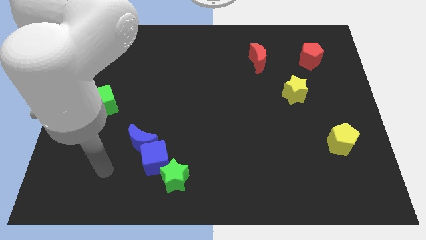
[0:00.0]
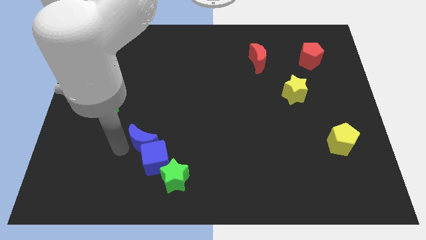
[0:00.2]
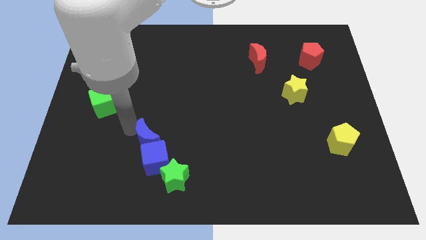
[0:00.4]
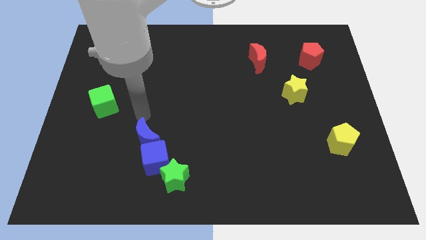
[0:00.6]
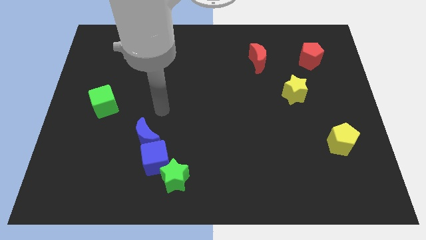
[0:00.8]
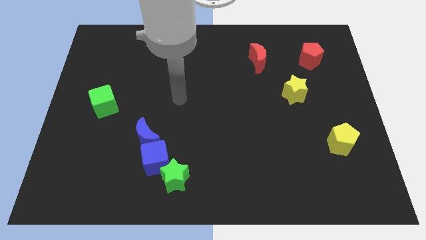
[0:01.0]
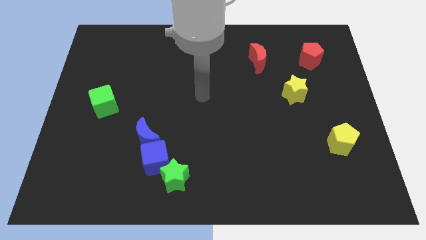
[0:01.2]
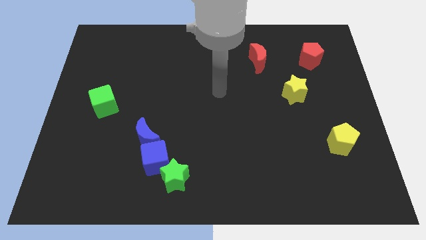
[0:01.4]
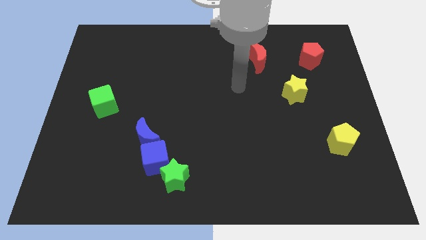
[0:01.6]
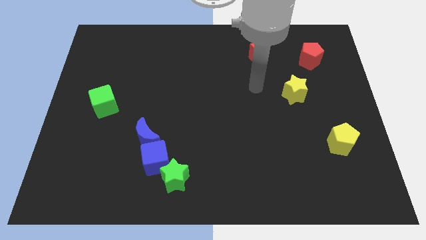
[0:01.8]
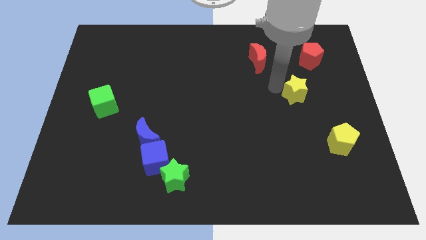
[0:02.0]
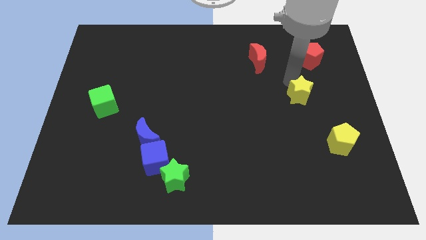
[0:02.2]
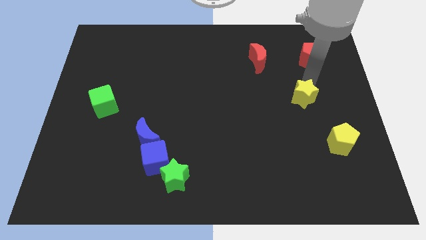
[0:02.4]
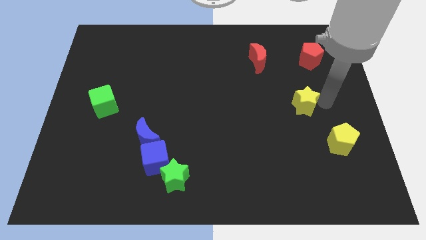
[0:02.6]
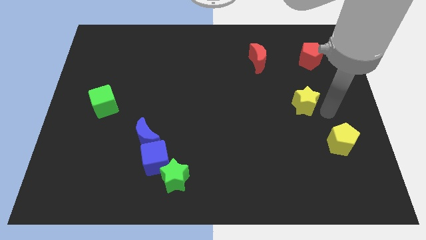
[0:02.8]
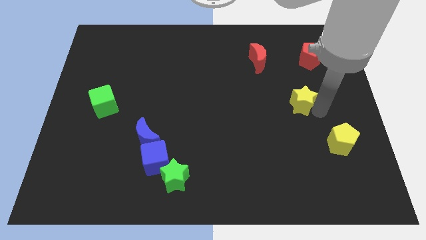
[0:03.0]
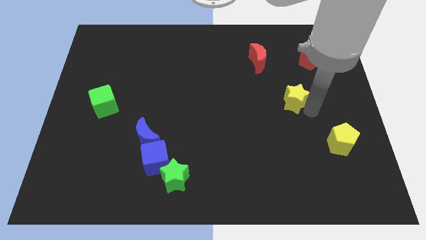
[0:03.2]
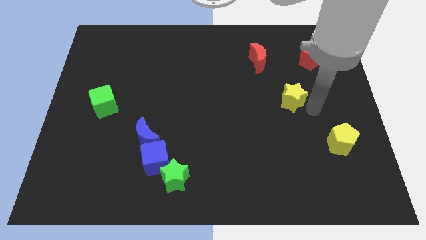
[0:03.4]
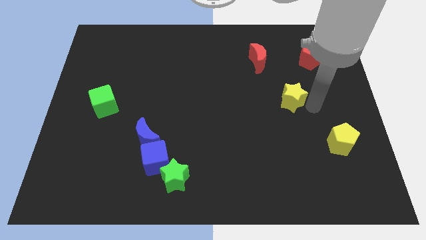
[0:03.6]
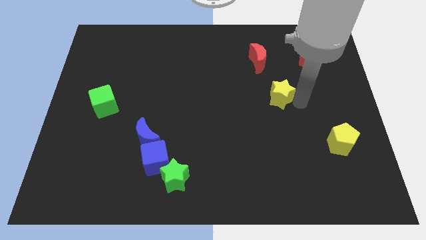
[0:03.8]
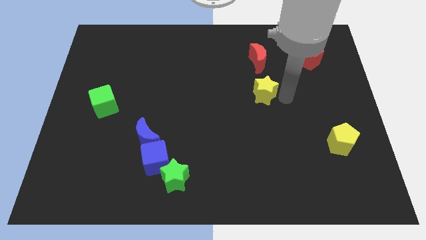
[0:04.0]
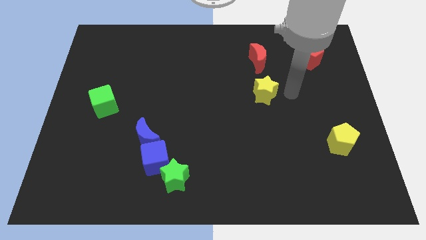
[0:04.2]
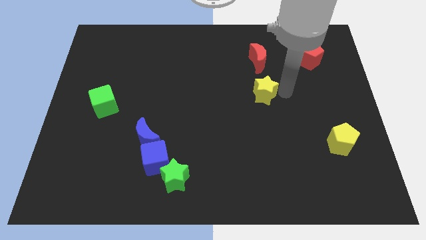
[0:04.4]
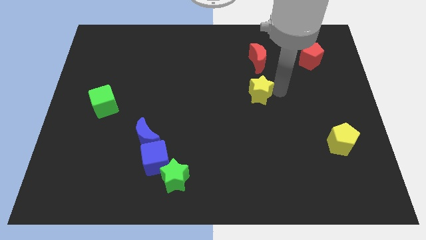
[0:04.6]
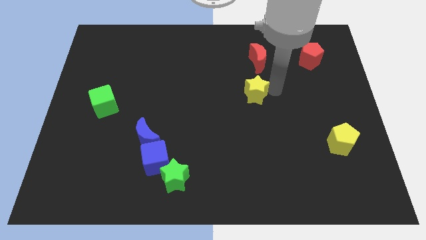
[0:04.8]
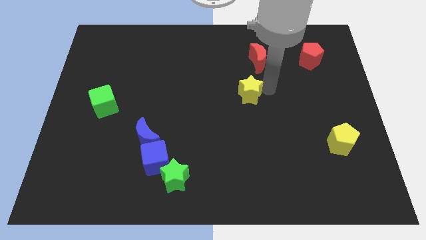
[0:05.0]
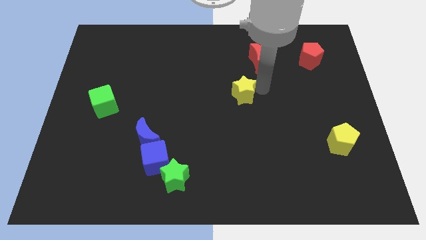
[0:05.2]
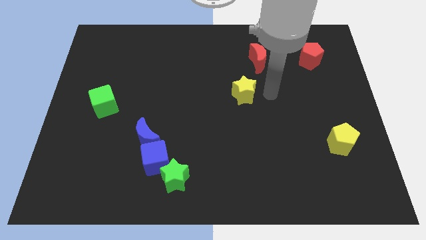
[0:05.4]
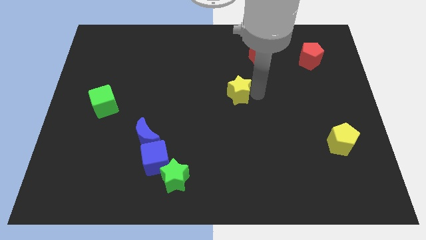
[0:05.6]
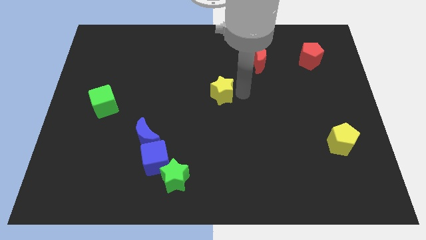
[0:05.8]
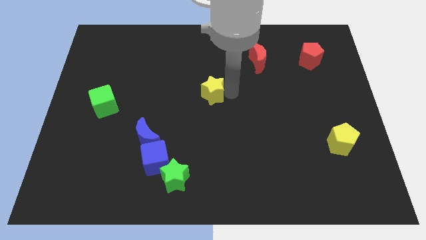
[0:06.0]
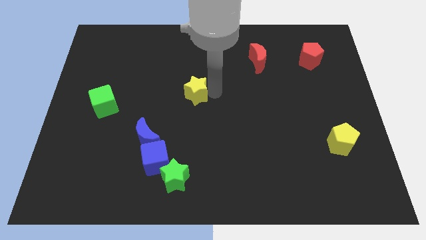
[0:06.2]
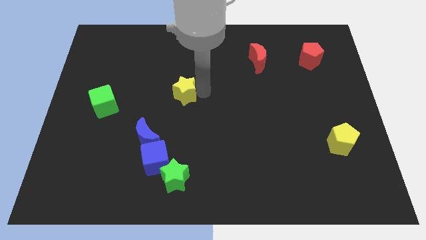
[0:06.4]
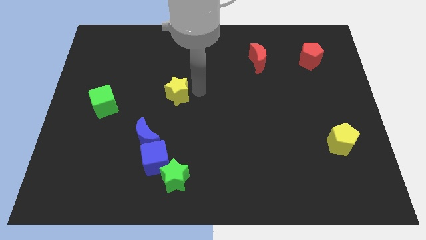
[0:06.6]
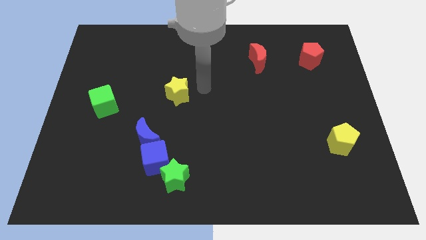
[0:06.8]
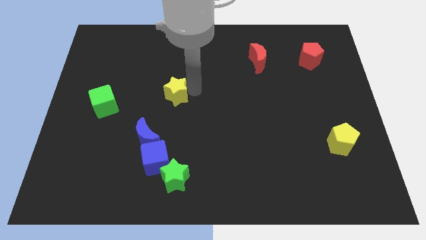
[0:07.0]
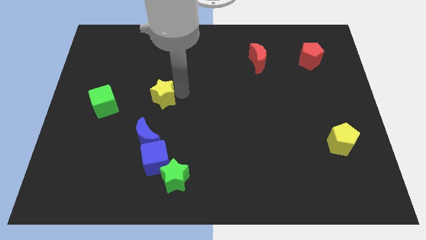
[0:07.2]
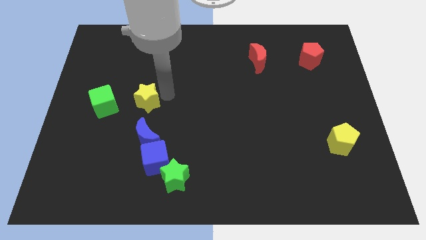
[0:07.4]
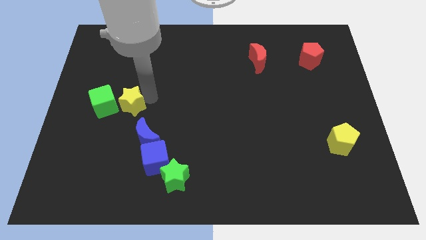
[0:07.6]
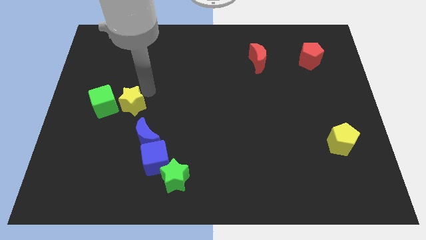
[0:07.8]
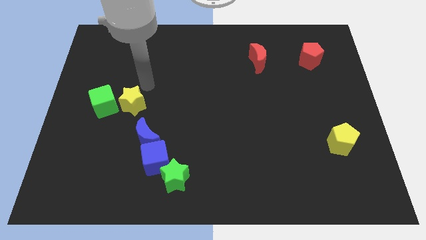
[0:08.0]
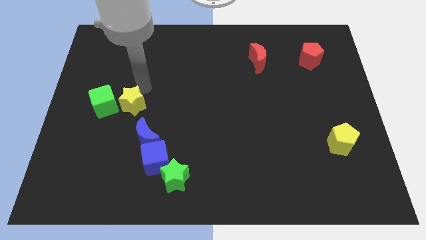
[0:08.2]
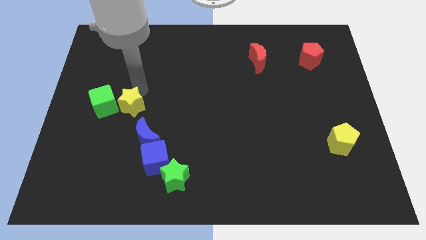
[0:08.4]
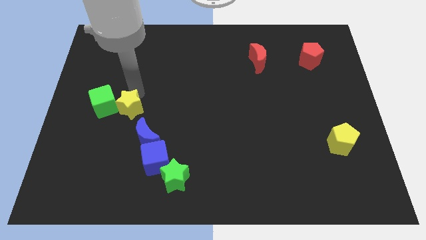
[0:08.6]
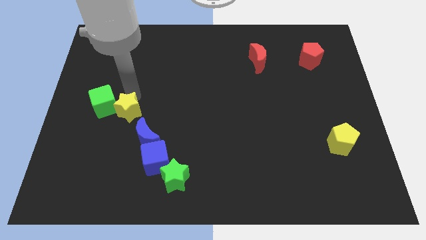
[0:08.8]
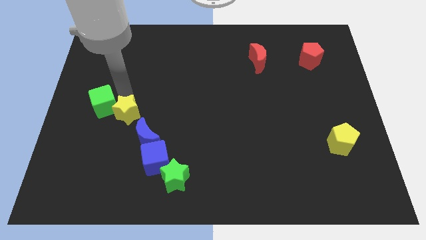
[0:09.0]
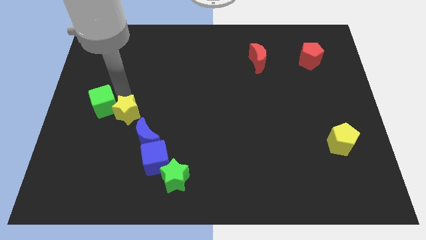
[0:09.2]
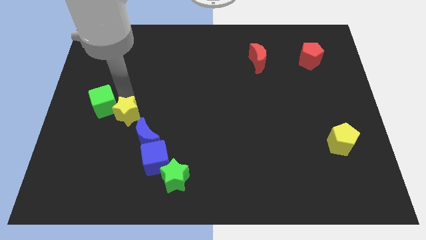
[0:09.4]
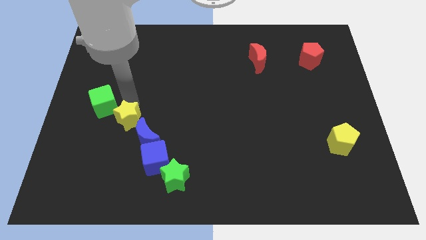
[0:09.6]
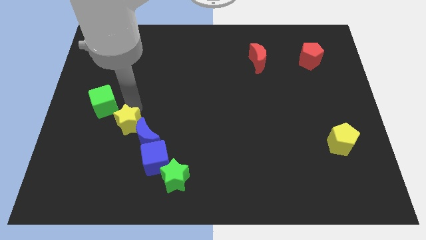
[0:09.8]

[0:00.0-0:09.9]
move the yellow star to the top left side of the blue cube

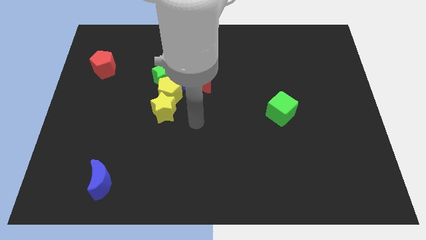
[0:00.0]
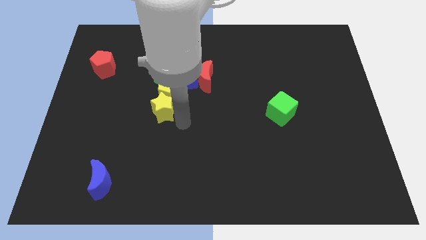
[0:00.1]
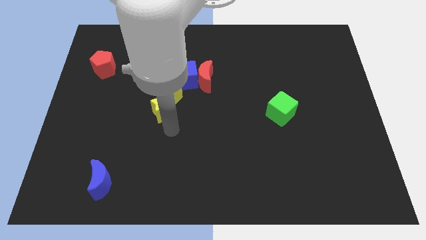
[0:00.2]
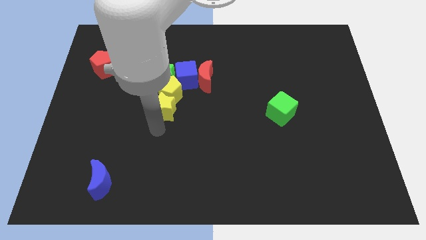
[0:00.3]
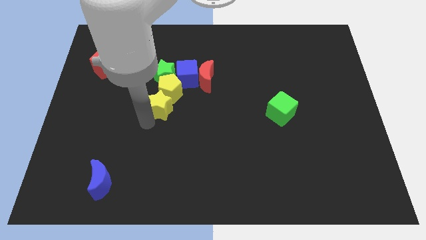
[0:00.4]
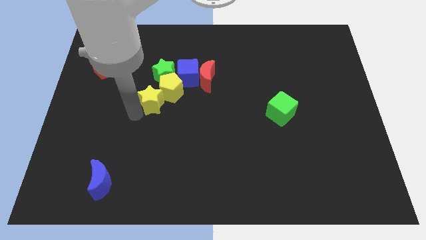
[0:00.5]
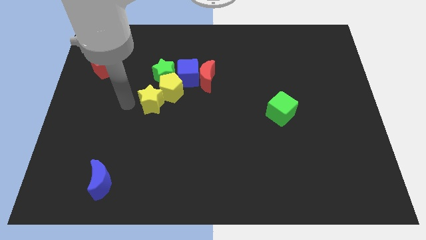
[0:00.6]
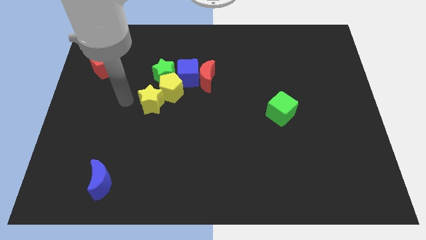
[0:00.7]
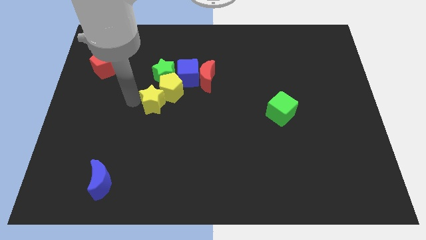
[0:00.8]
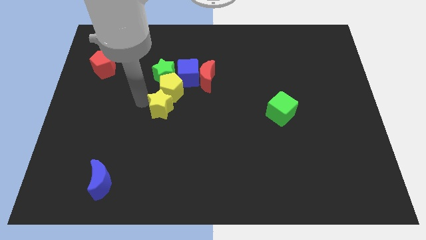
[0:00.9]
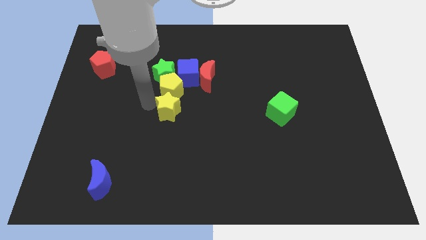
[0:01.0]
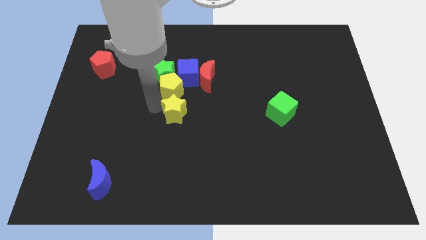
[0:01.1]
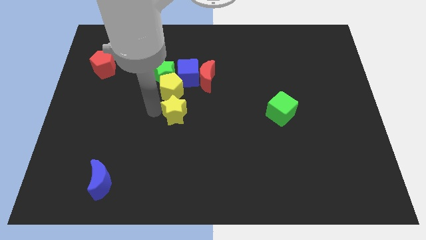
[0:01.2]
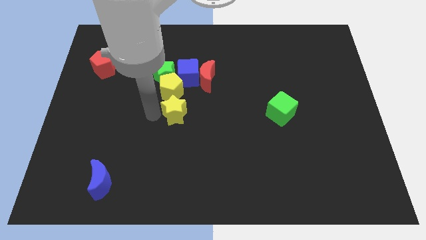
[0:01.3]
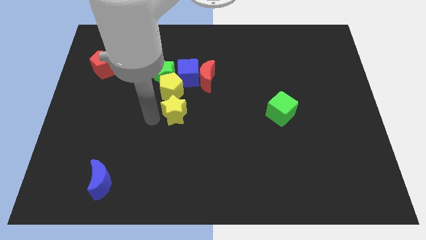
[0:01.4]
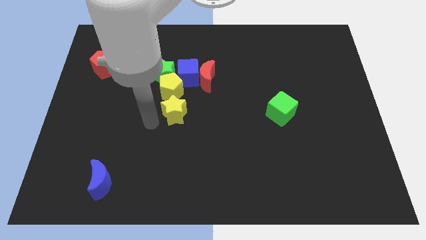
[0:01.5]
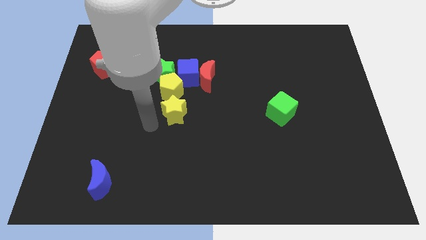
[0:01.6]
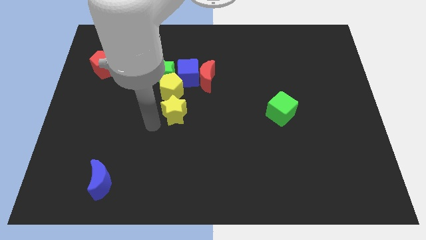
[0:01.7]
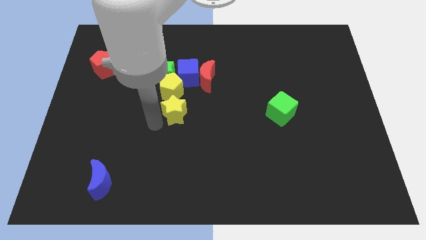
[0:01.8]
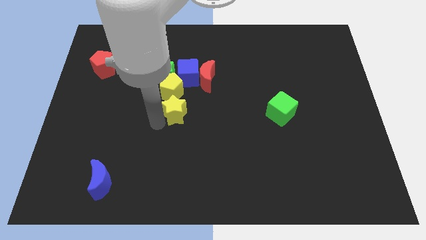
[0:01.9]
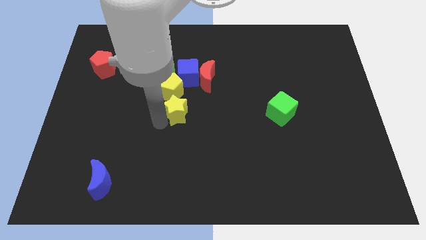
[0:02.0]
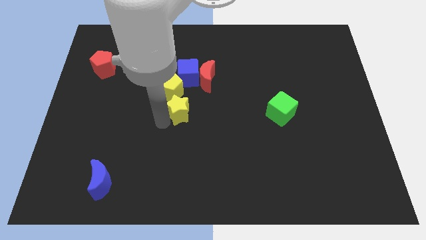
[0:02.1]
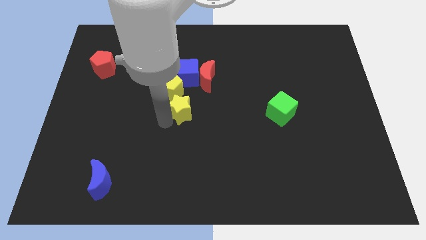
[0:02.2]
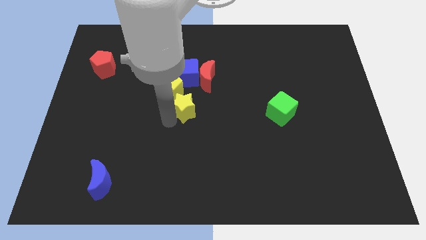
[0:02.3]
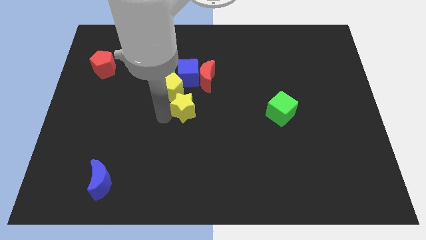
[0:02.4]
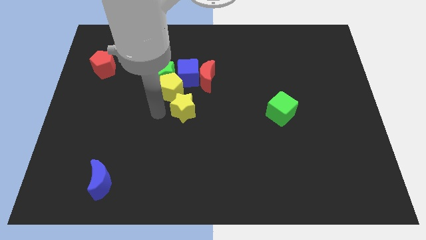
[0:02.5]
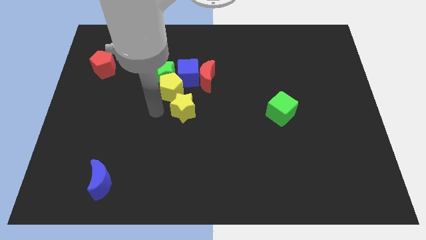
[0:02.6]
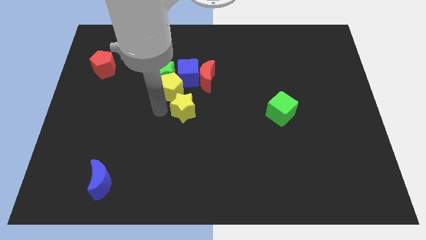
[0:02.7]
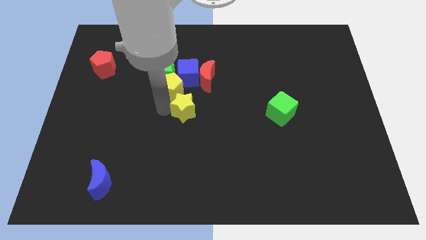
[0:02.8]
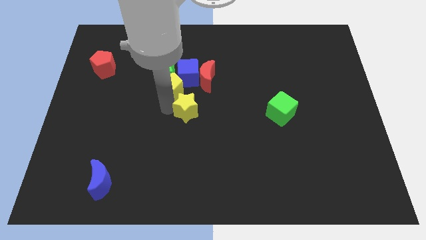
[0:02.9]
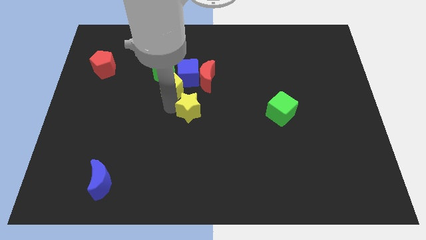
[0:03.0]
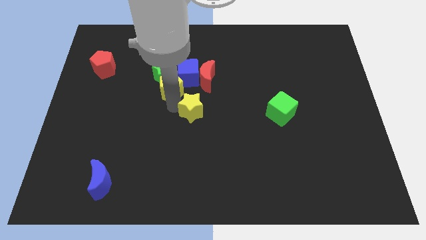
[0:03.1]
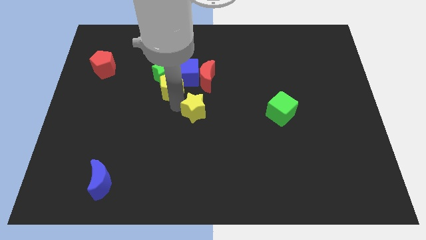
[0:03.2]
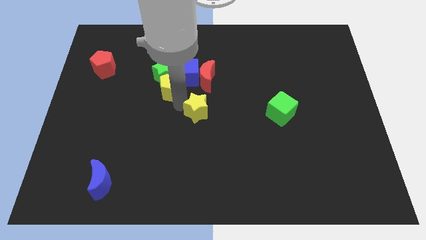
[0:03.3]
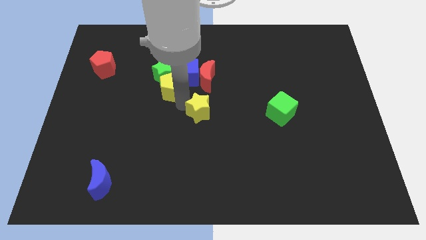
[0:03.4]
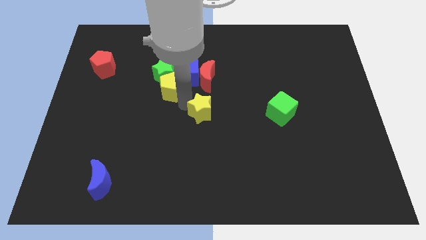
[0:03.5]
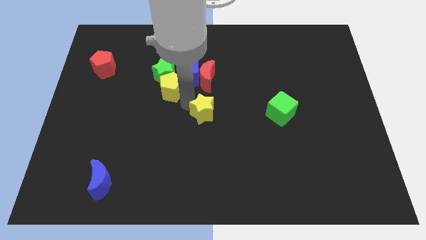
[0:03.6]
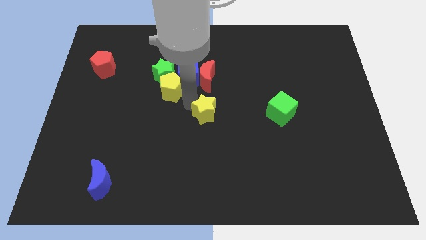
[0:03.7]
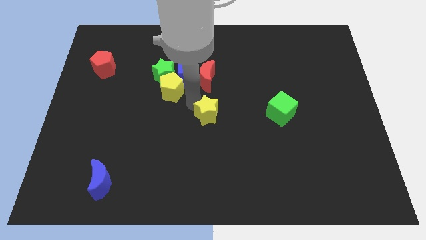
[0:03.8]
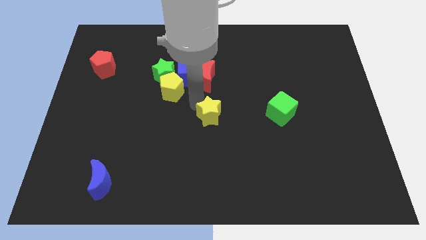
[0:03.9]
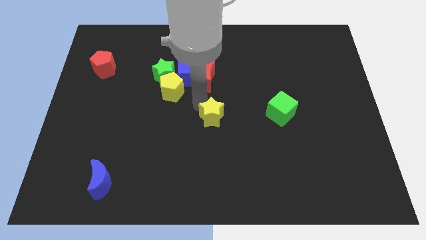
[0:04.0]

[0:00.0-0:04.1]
slide the yellow star to the left of the green cube
